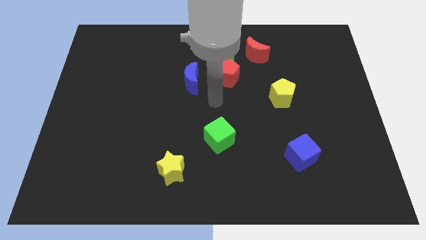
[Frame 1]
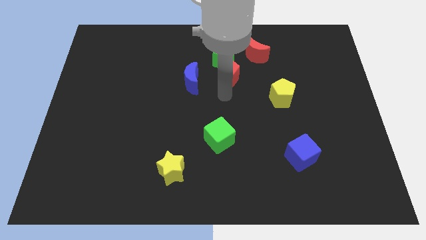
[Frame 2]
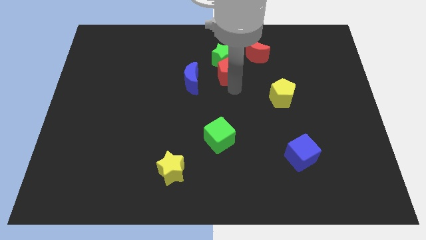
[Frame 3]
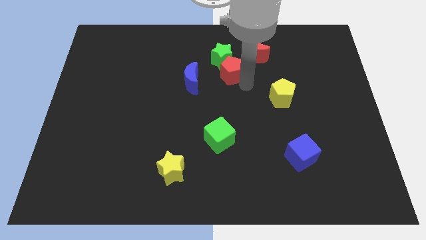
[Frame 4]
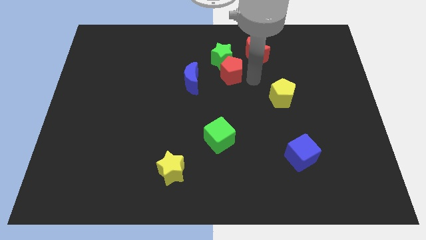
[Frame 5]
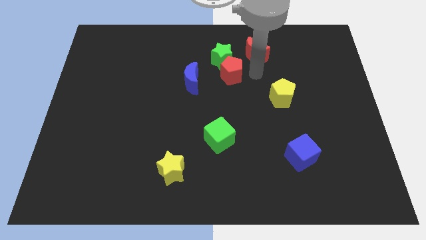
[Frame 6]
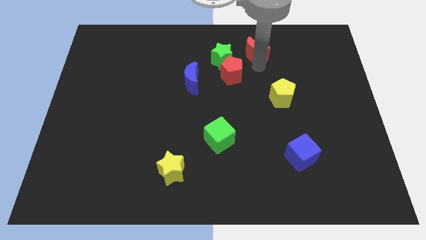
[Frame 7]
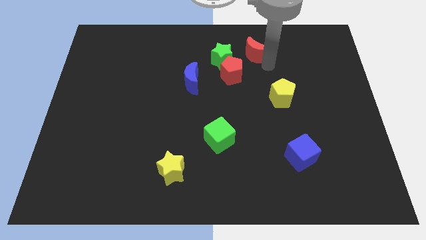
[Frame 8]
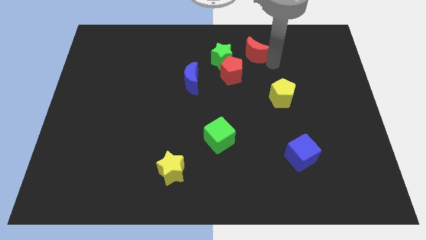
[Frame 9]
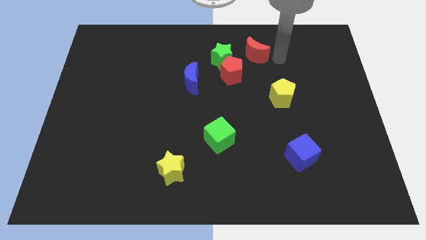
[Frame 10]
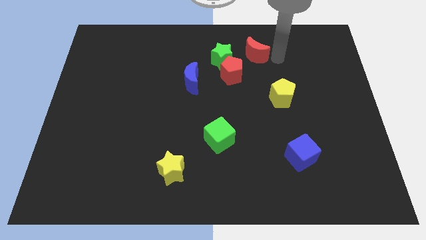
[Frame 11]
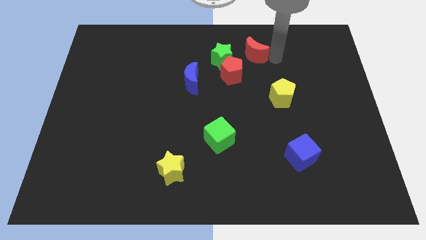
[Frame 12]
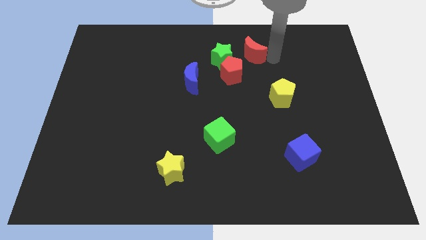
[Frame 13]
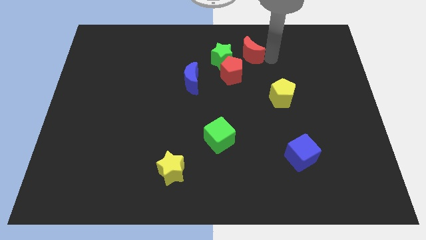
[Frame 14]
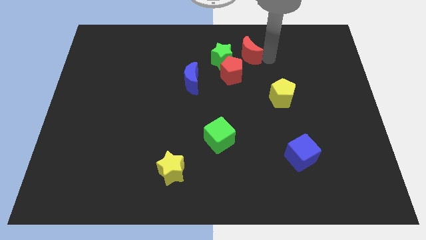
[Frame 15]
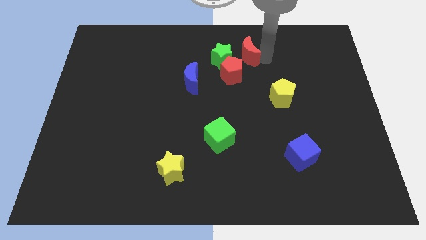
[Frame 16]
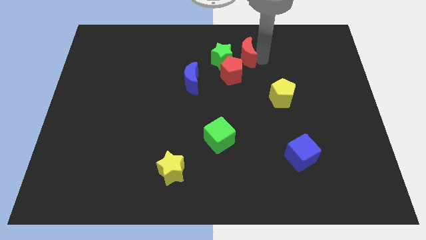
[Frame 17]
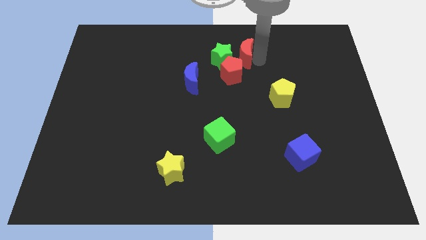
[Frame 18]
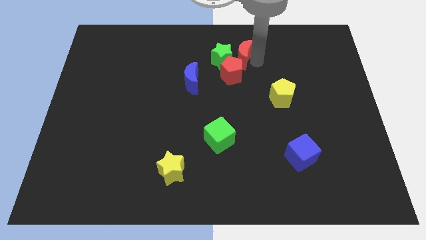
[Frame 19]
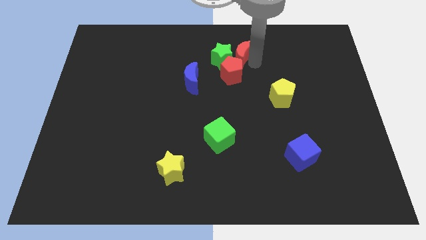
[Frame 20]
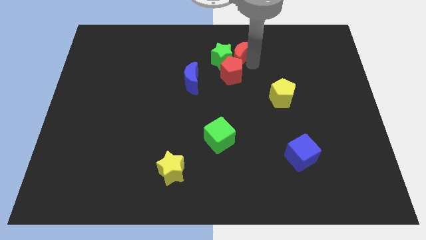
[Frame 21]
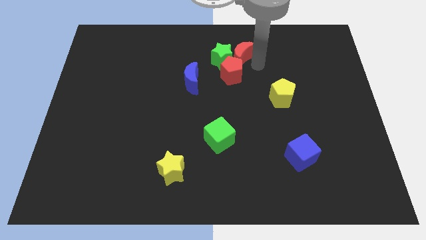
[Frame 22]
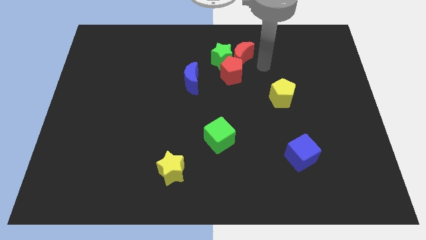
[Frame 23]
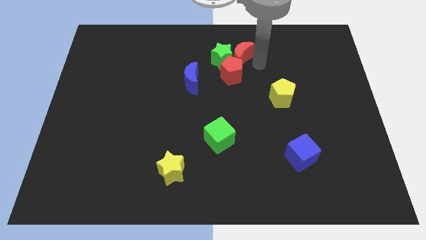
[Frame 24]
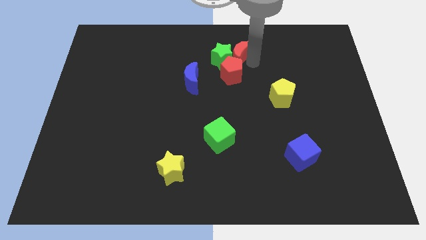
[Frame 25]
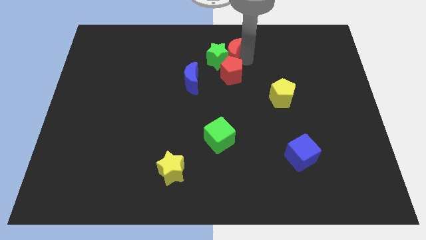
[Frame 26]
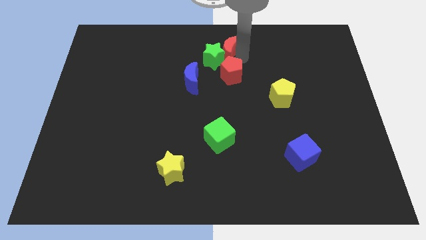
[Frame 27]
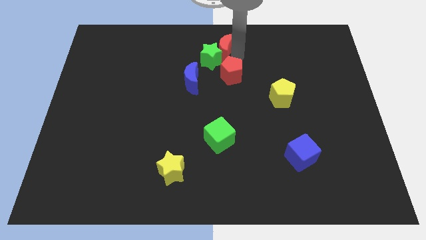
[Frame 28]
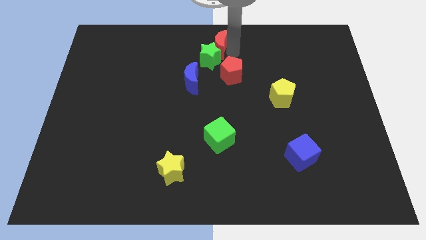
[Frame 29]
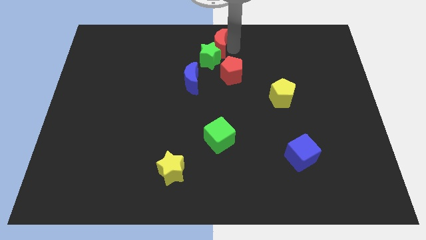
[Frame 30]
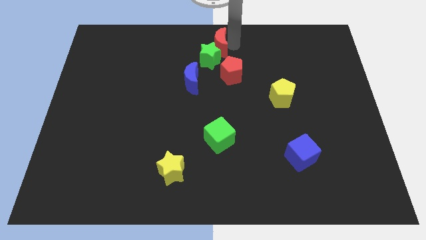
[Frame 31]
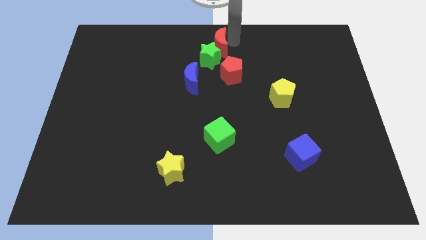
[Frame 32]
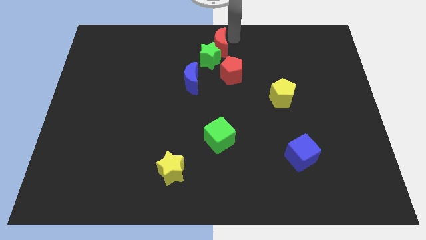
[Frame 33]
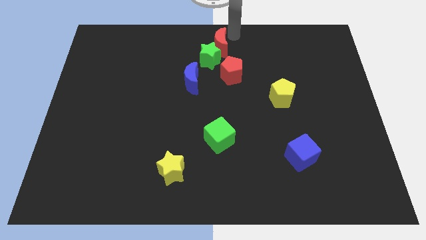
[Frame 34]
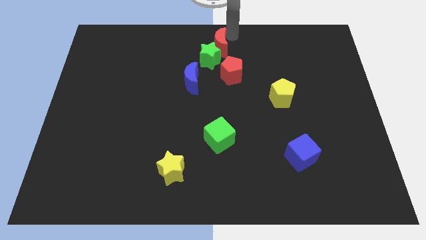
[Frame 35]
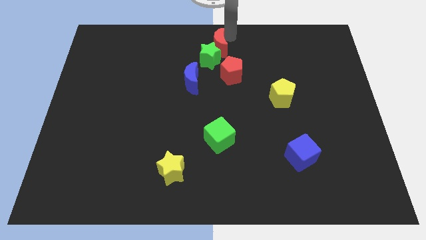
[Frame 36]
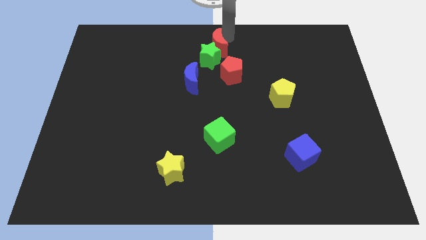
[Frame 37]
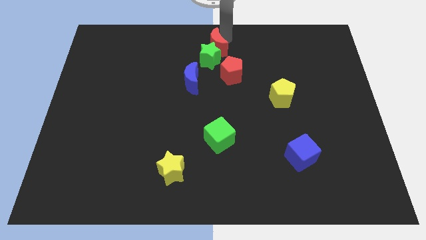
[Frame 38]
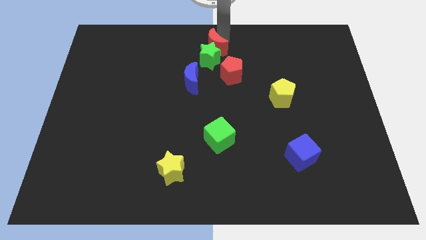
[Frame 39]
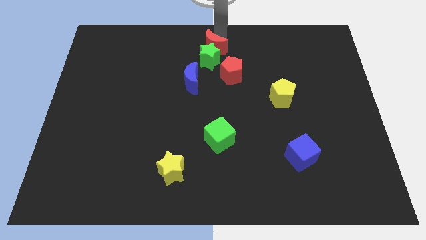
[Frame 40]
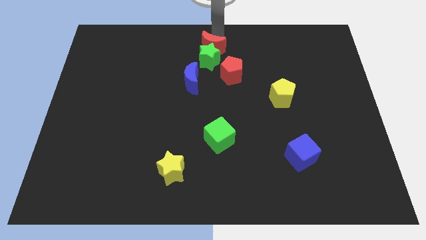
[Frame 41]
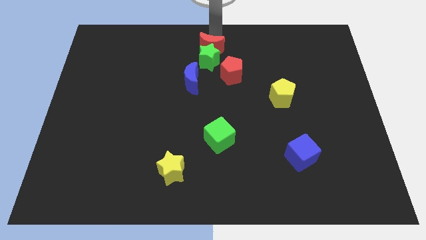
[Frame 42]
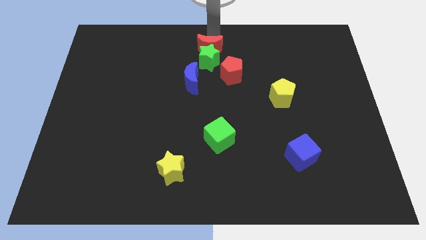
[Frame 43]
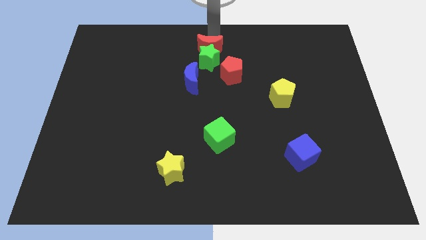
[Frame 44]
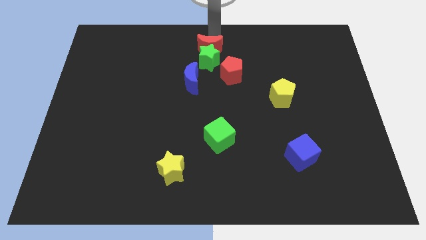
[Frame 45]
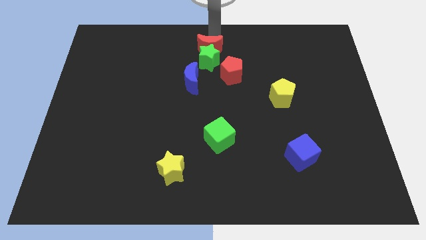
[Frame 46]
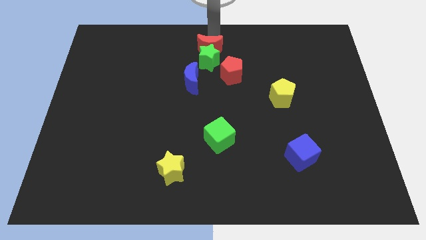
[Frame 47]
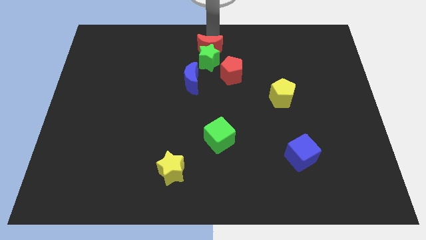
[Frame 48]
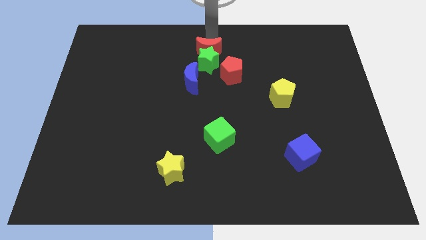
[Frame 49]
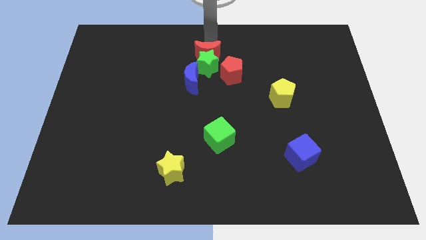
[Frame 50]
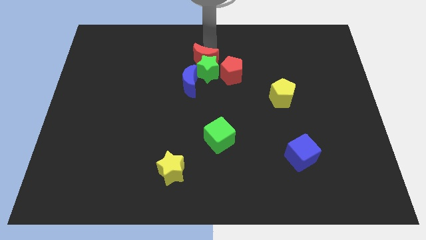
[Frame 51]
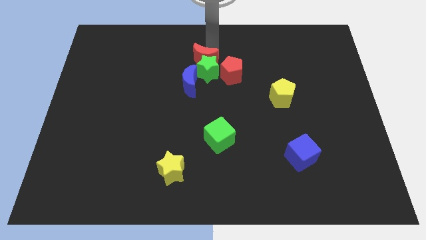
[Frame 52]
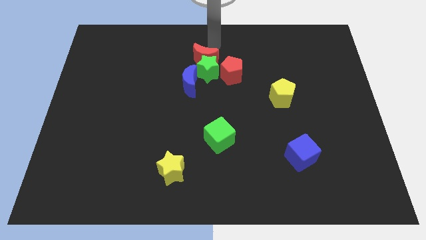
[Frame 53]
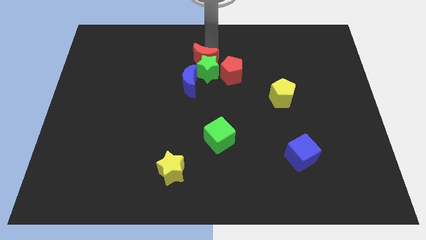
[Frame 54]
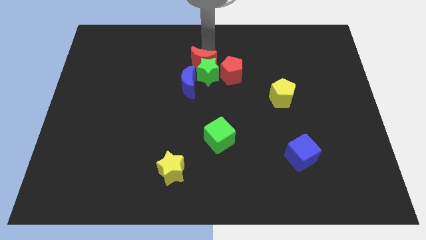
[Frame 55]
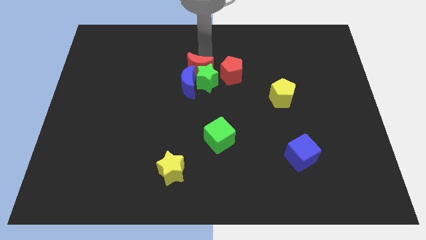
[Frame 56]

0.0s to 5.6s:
put the red moon next to the blue moon

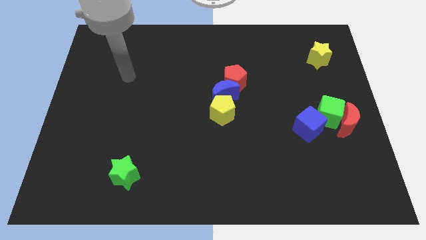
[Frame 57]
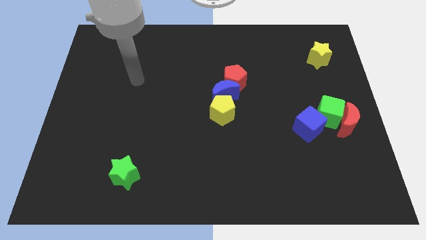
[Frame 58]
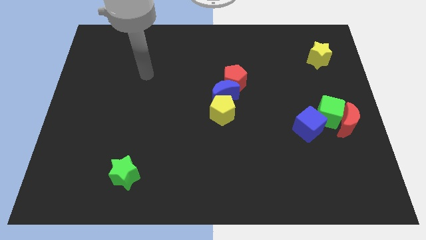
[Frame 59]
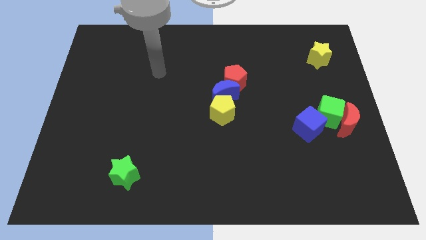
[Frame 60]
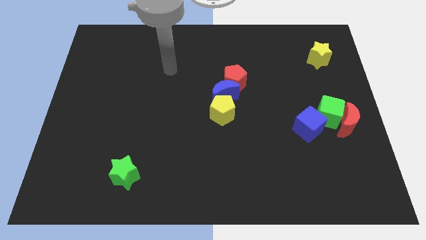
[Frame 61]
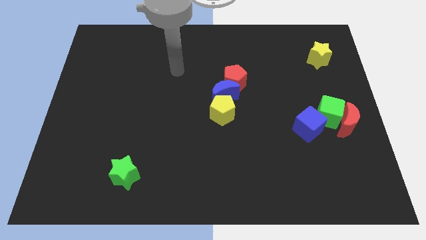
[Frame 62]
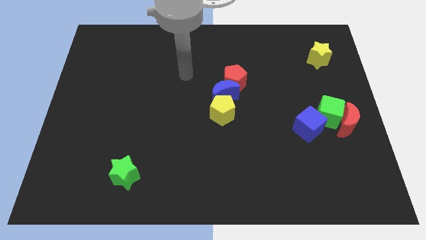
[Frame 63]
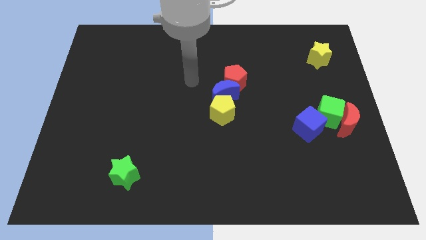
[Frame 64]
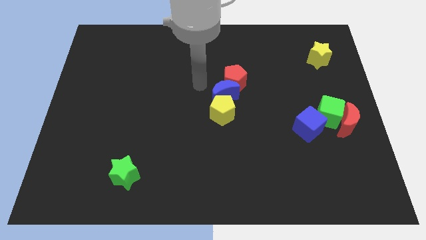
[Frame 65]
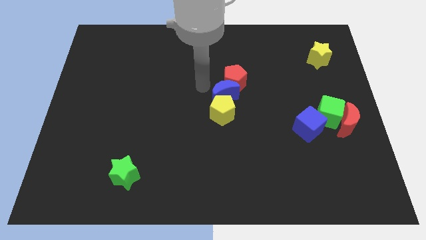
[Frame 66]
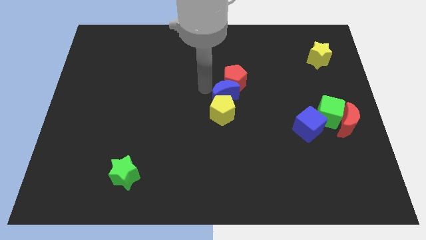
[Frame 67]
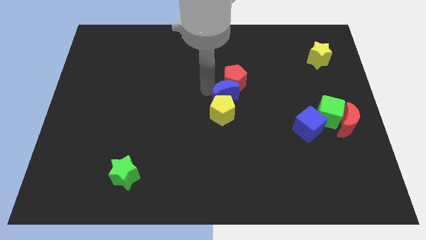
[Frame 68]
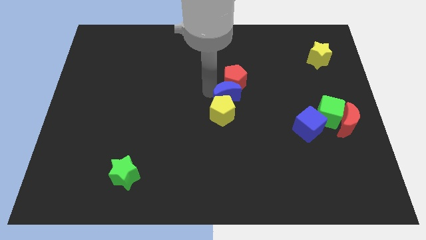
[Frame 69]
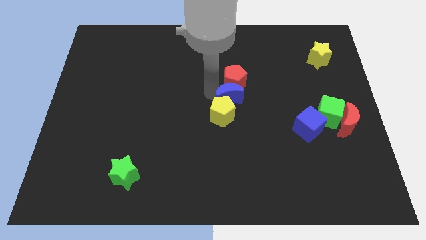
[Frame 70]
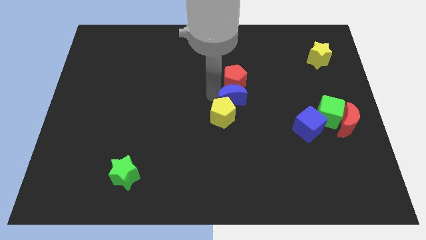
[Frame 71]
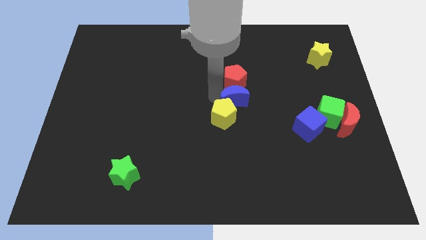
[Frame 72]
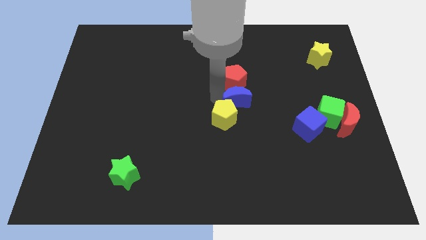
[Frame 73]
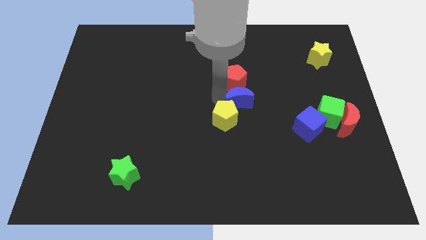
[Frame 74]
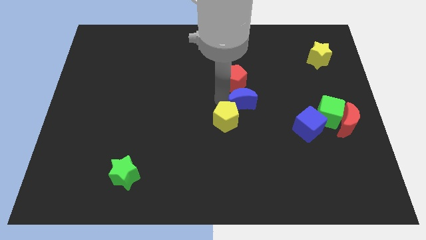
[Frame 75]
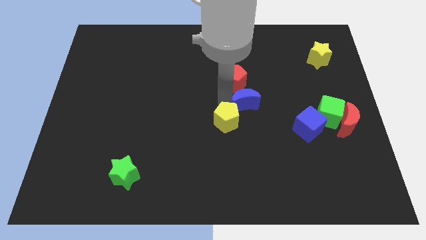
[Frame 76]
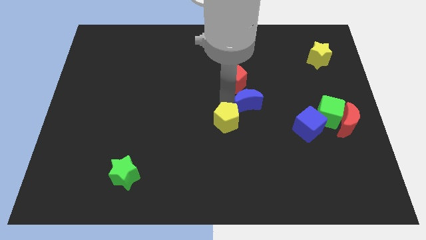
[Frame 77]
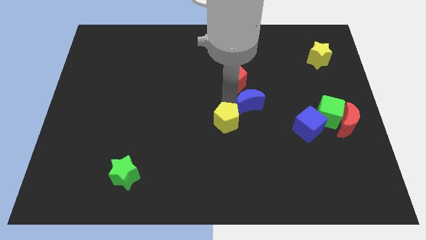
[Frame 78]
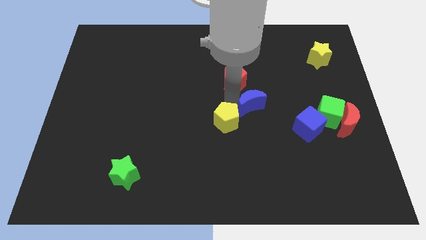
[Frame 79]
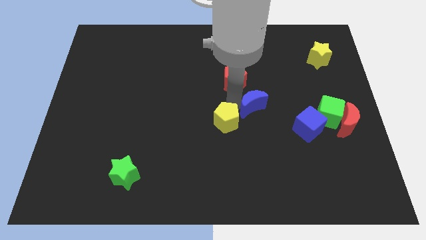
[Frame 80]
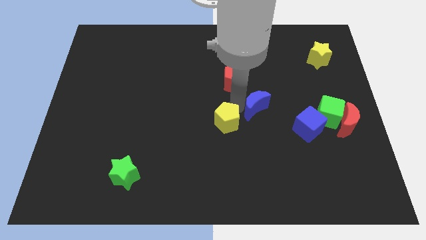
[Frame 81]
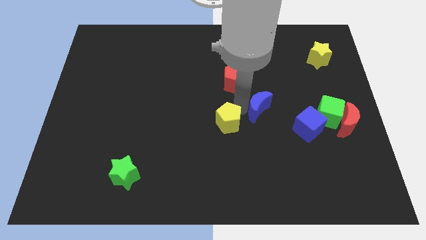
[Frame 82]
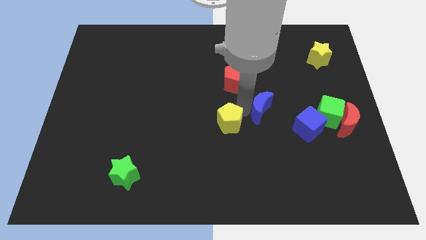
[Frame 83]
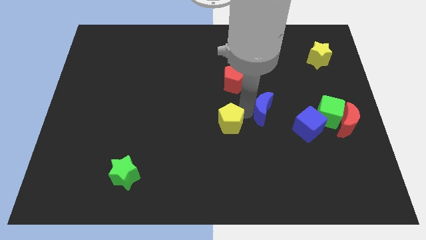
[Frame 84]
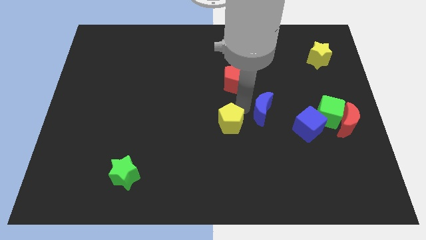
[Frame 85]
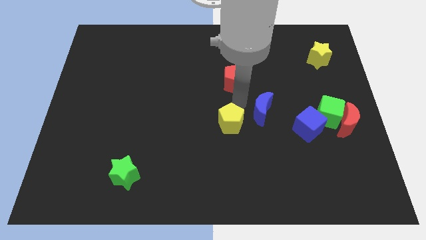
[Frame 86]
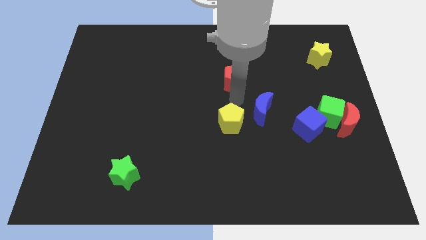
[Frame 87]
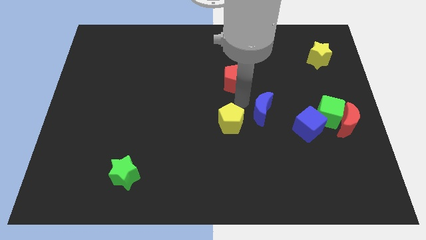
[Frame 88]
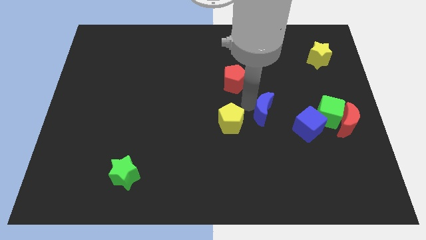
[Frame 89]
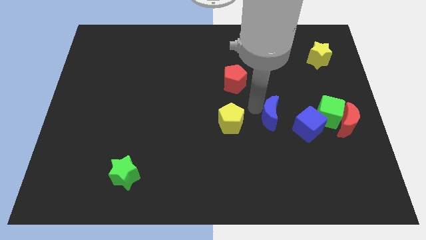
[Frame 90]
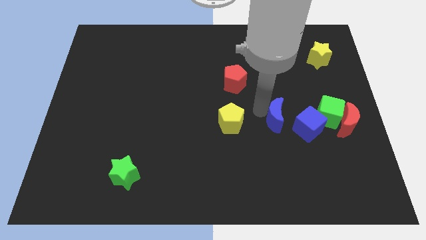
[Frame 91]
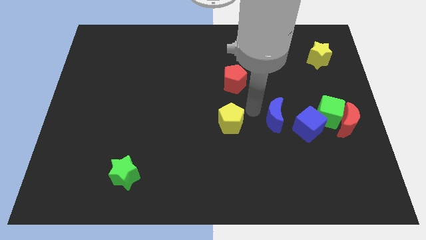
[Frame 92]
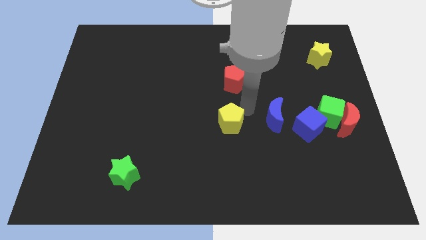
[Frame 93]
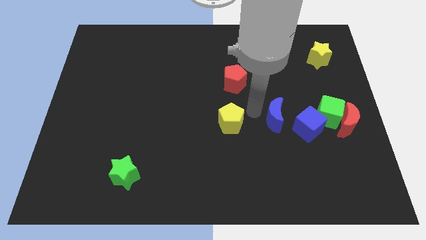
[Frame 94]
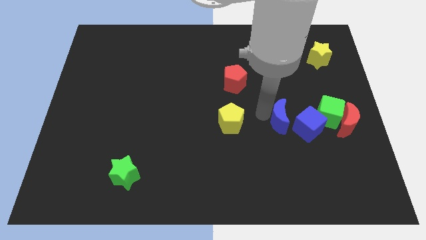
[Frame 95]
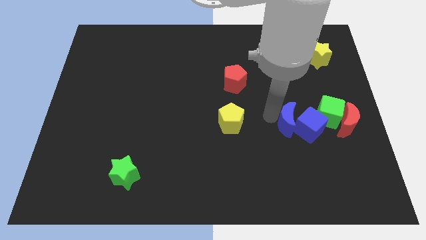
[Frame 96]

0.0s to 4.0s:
put the blue moon next to the blue cube
